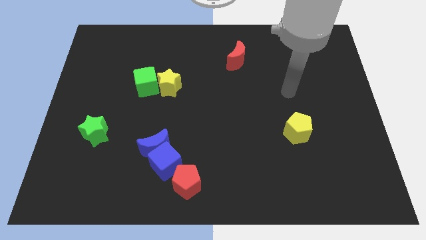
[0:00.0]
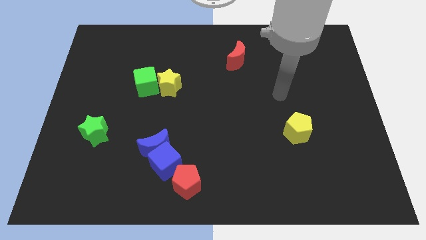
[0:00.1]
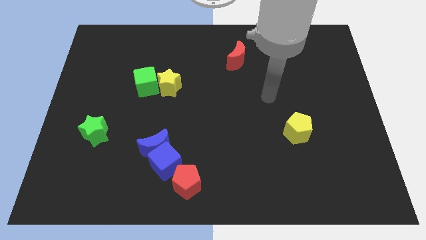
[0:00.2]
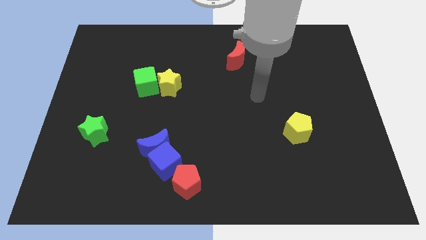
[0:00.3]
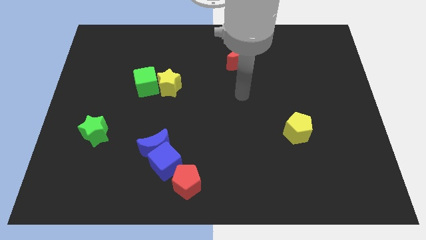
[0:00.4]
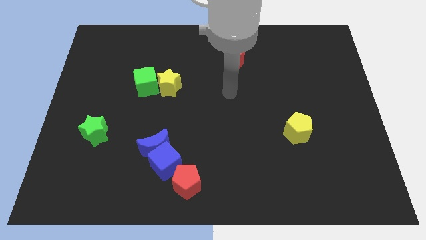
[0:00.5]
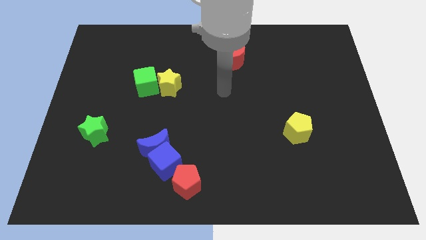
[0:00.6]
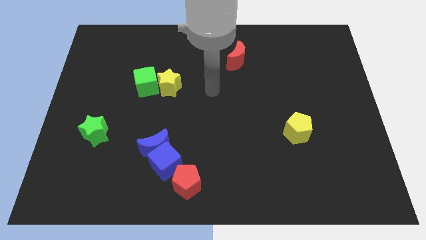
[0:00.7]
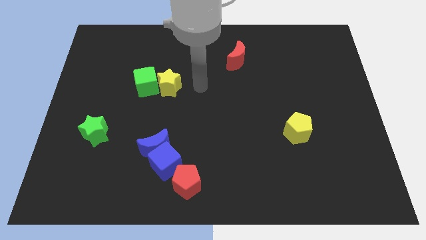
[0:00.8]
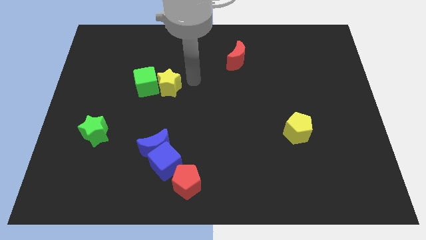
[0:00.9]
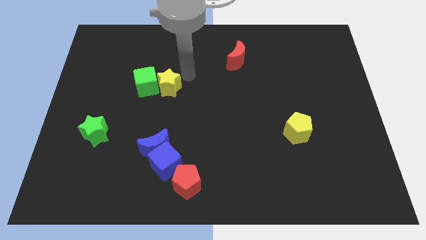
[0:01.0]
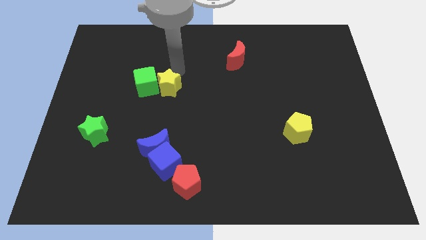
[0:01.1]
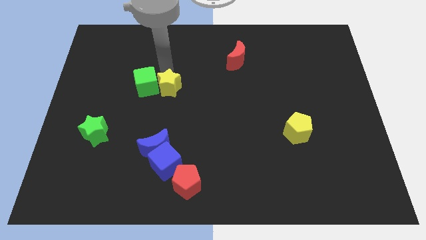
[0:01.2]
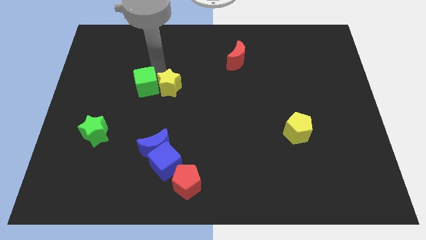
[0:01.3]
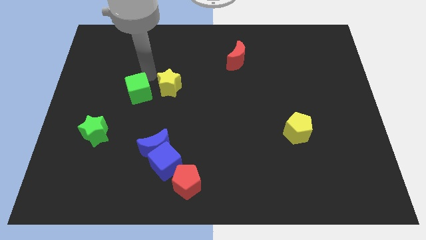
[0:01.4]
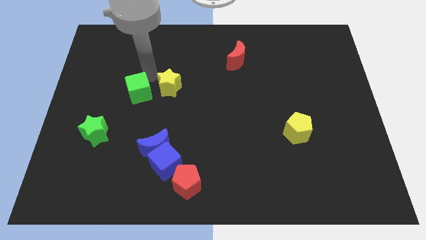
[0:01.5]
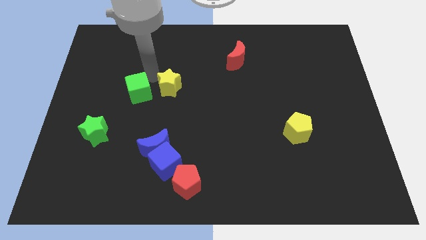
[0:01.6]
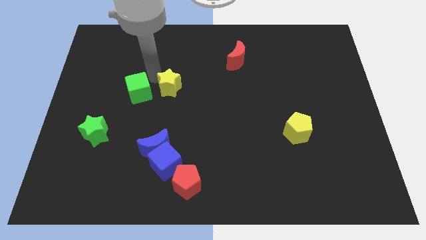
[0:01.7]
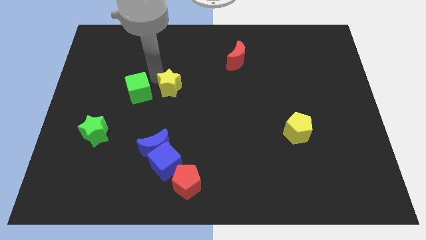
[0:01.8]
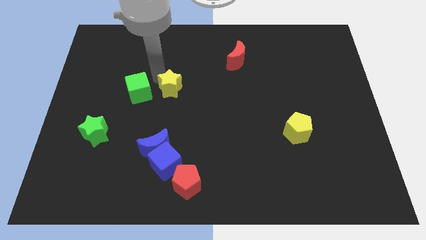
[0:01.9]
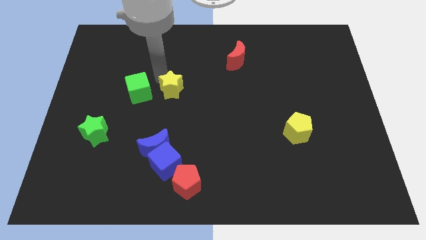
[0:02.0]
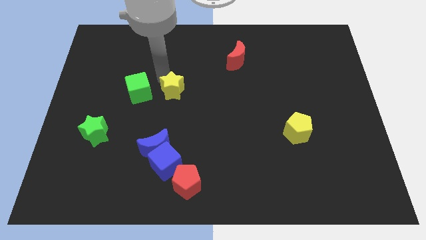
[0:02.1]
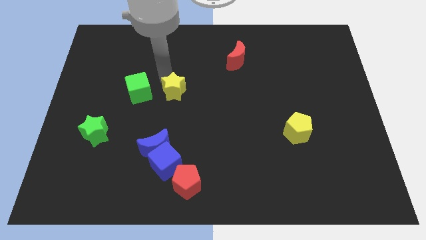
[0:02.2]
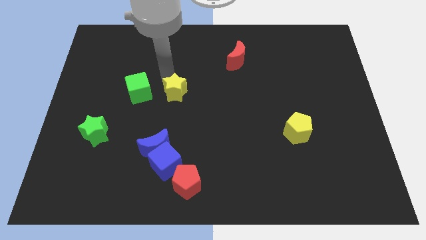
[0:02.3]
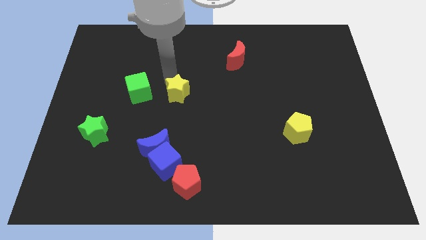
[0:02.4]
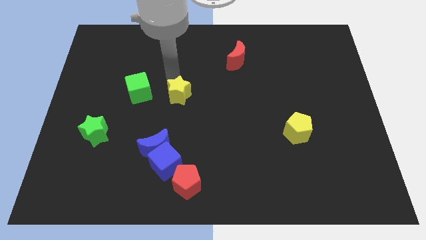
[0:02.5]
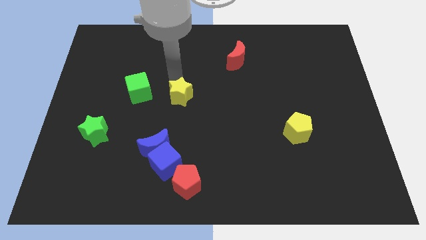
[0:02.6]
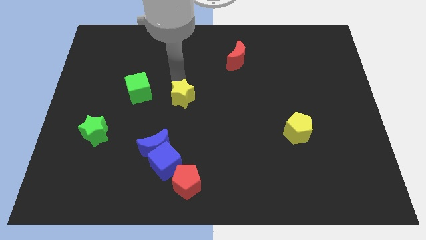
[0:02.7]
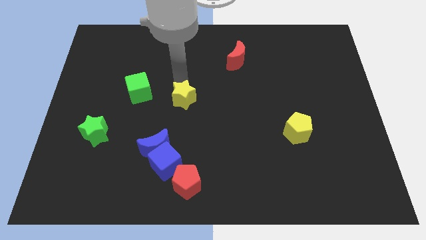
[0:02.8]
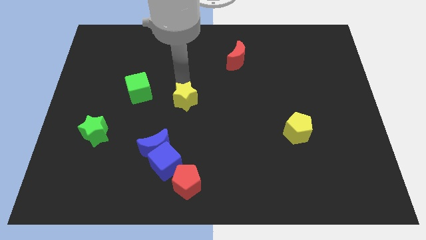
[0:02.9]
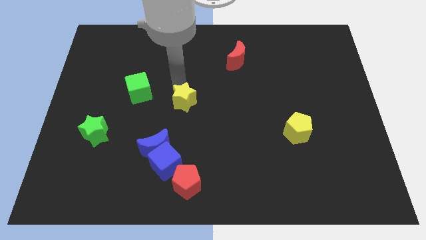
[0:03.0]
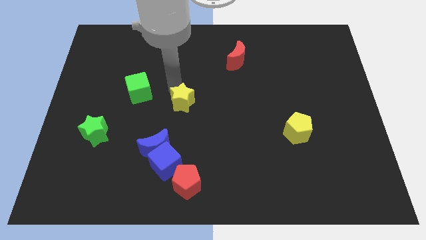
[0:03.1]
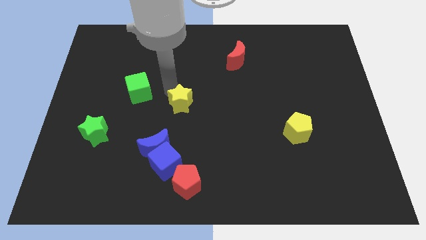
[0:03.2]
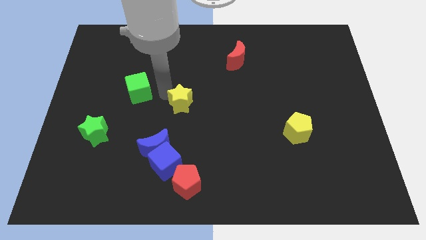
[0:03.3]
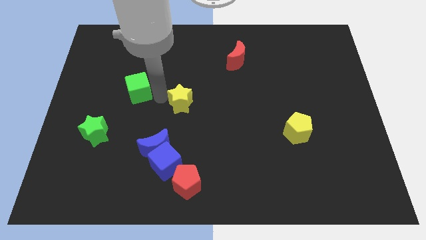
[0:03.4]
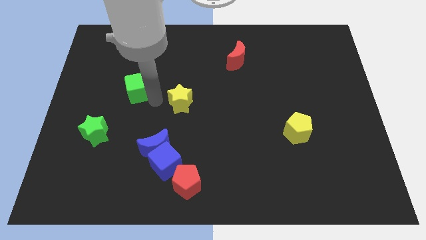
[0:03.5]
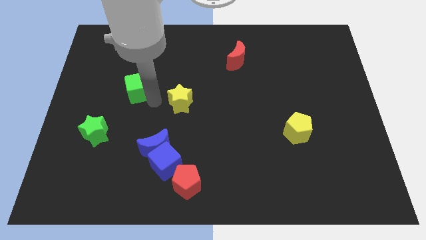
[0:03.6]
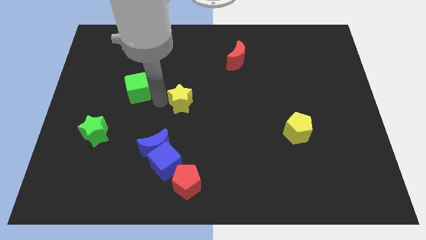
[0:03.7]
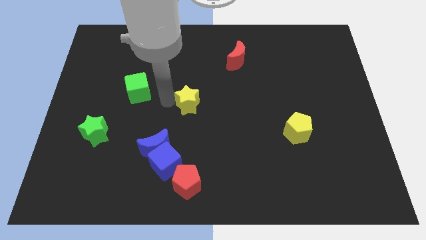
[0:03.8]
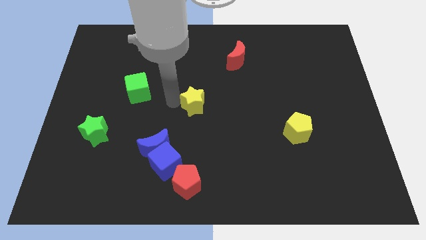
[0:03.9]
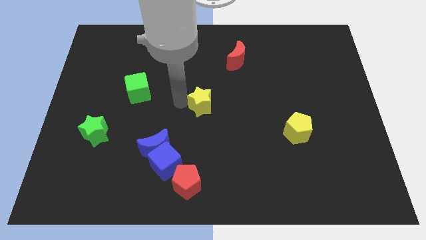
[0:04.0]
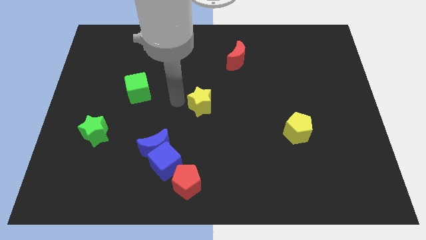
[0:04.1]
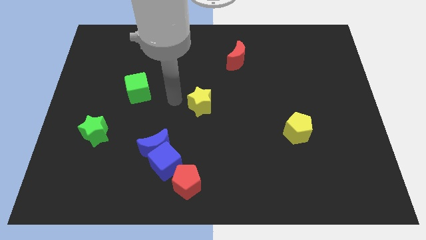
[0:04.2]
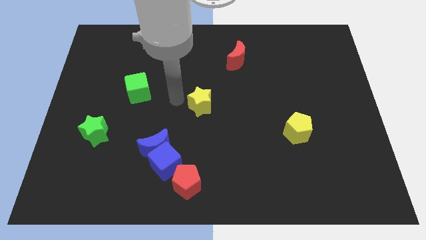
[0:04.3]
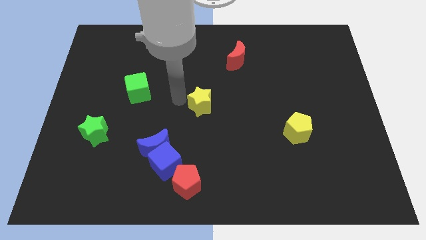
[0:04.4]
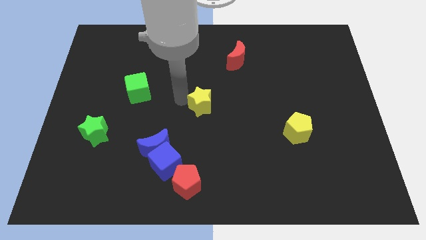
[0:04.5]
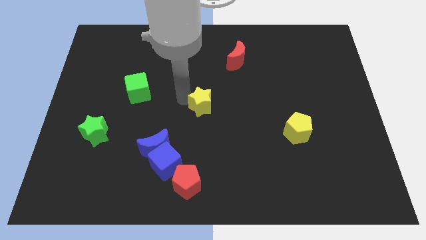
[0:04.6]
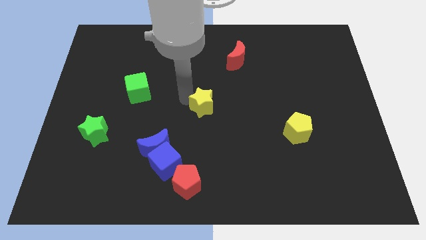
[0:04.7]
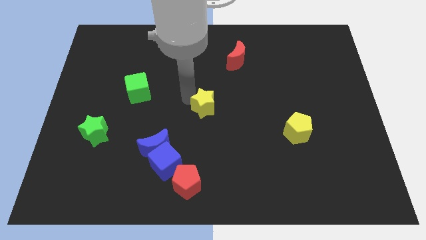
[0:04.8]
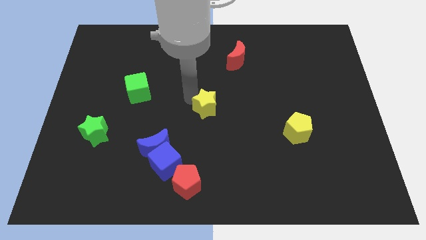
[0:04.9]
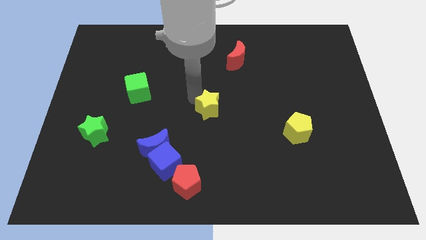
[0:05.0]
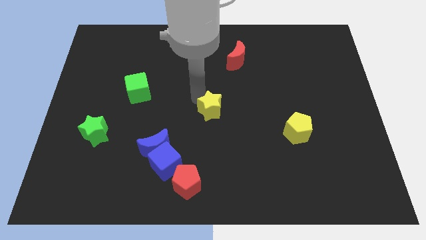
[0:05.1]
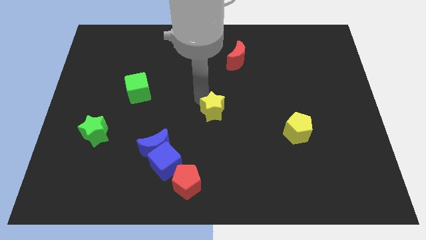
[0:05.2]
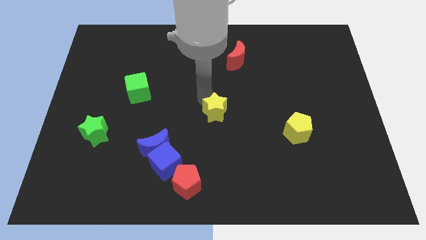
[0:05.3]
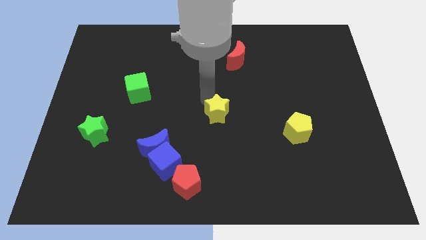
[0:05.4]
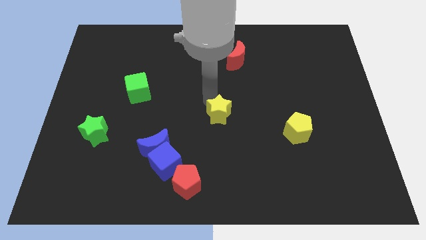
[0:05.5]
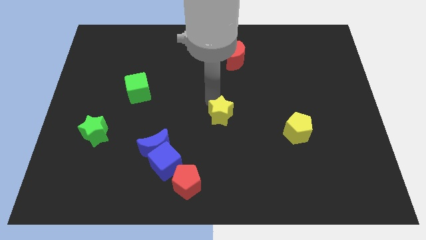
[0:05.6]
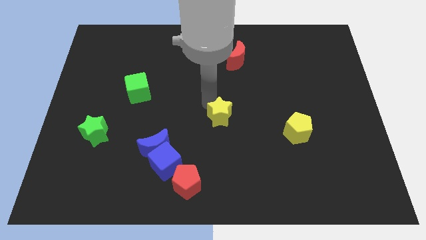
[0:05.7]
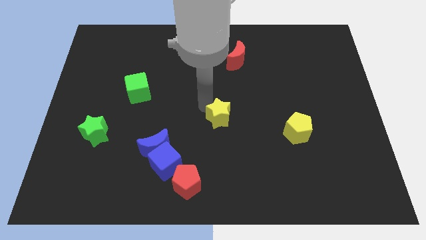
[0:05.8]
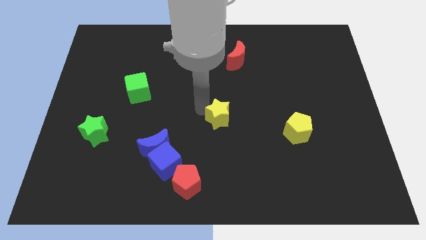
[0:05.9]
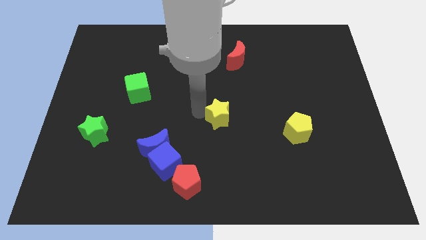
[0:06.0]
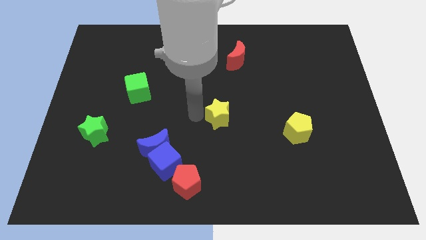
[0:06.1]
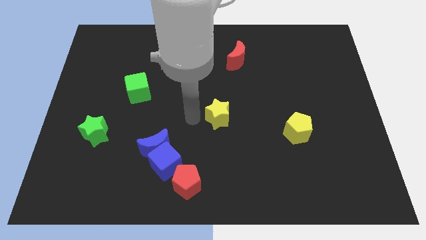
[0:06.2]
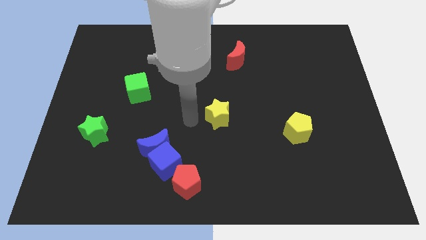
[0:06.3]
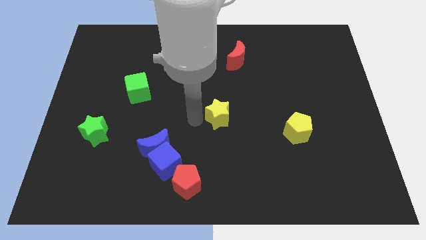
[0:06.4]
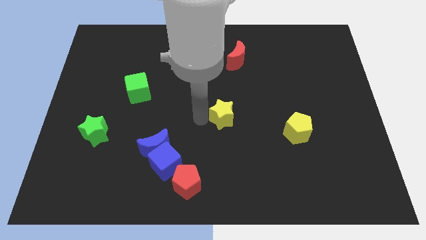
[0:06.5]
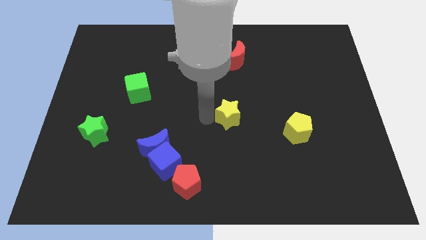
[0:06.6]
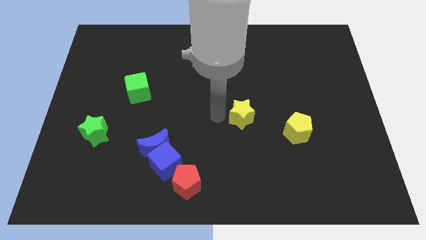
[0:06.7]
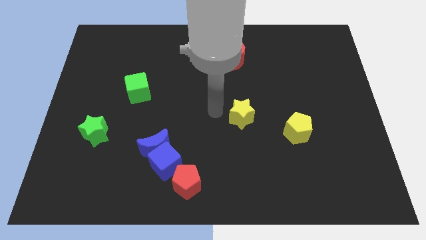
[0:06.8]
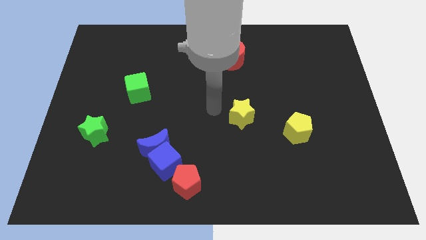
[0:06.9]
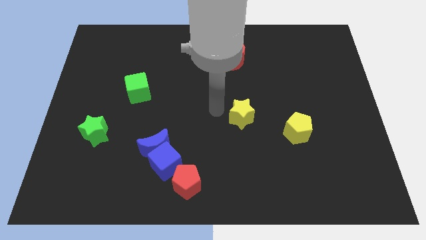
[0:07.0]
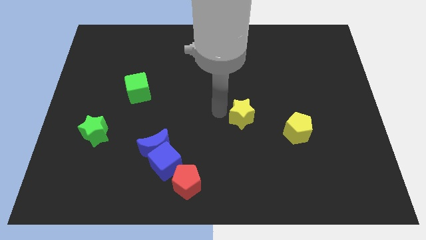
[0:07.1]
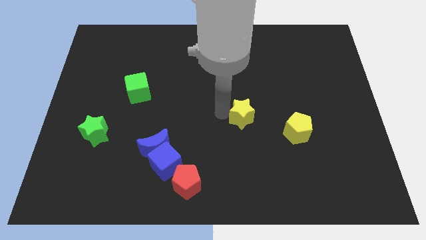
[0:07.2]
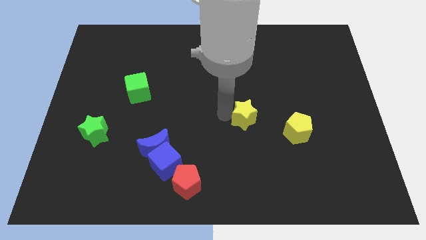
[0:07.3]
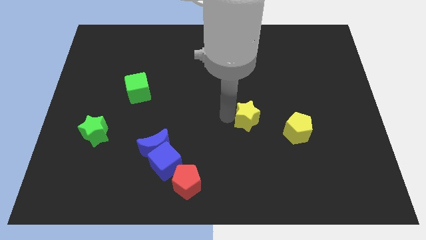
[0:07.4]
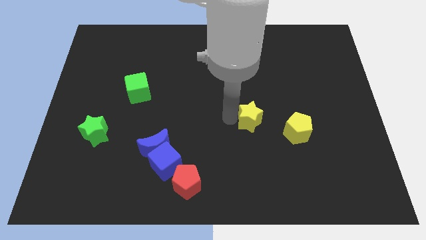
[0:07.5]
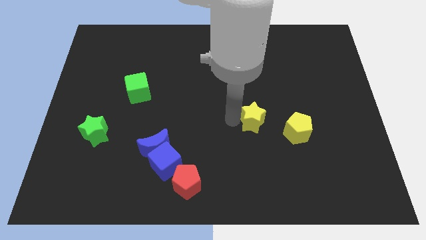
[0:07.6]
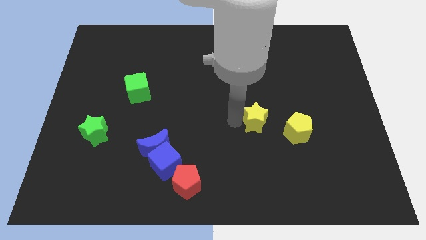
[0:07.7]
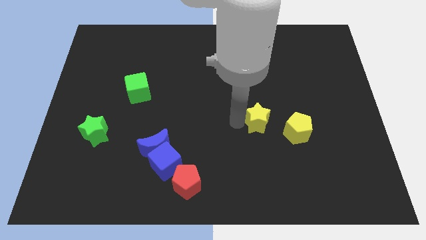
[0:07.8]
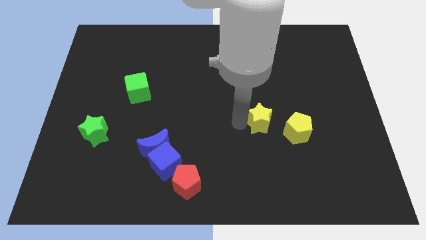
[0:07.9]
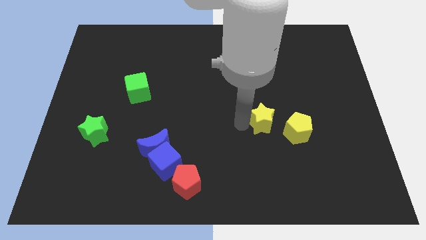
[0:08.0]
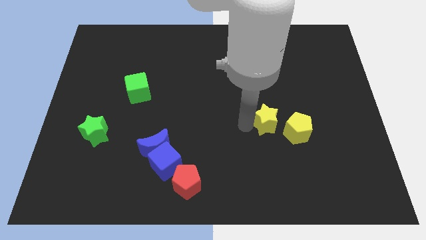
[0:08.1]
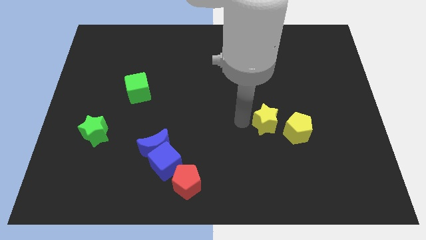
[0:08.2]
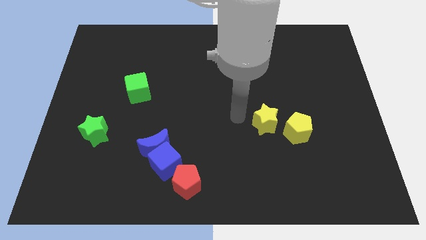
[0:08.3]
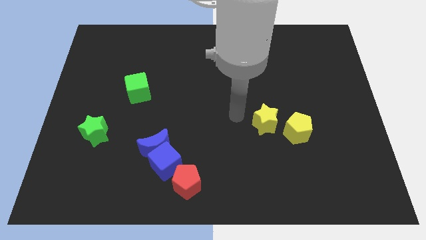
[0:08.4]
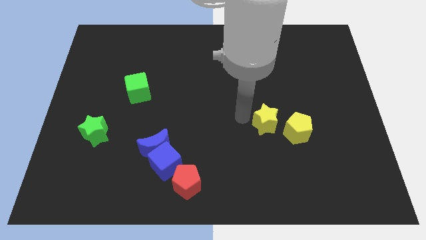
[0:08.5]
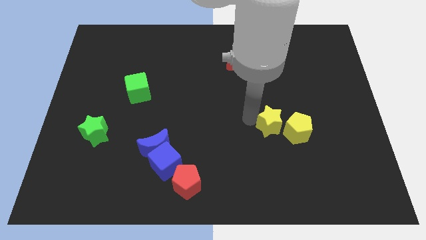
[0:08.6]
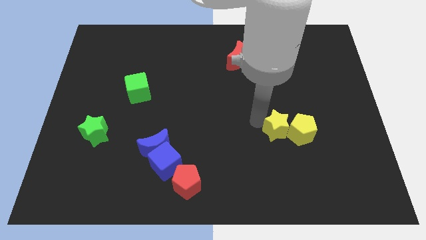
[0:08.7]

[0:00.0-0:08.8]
slide the yellow star to the yellow pentagon
